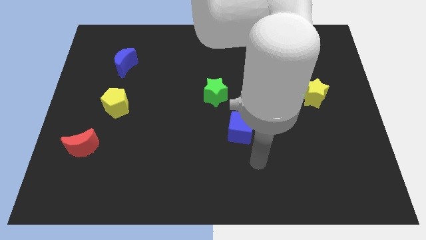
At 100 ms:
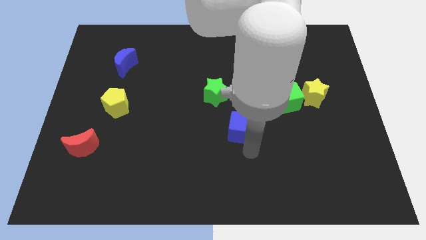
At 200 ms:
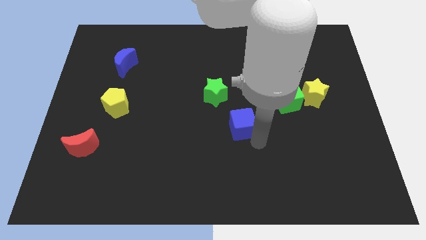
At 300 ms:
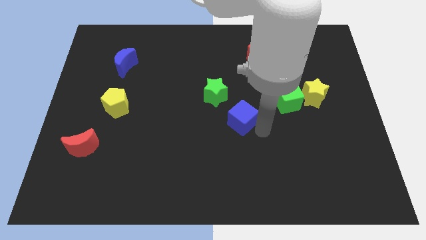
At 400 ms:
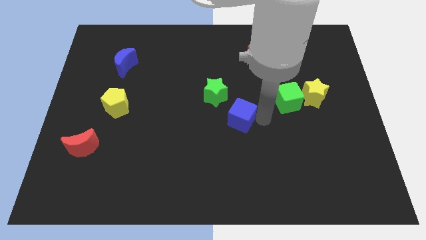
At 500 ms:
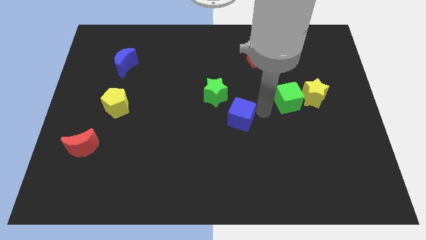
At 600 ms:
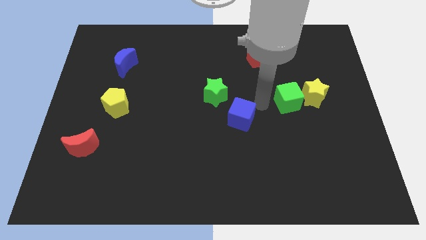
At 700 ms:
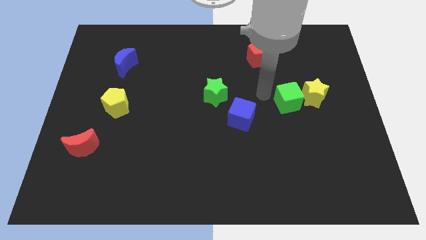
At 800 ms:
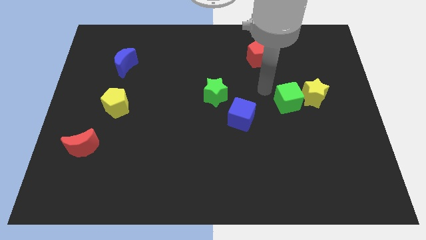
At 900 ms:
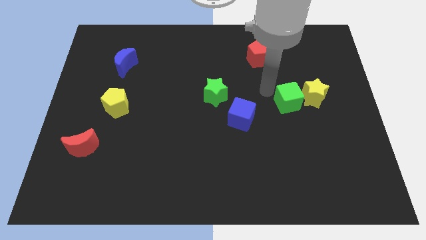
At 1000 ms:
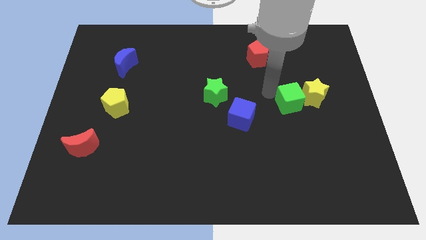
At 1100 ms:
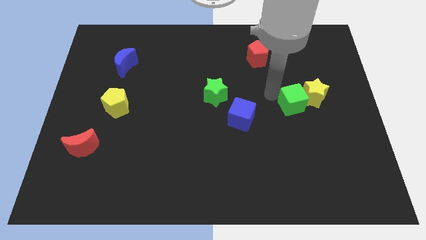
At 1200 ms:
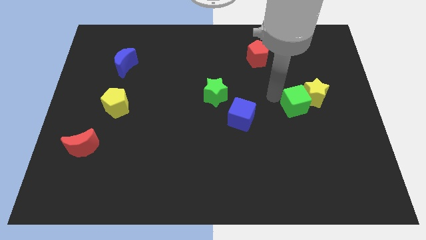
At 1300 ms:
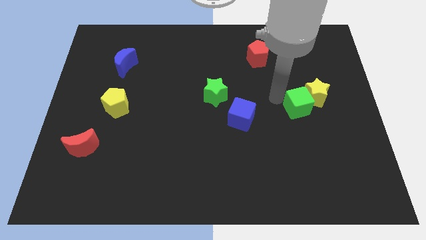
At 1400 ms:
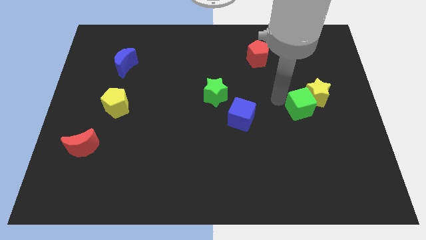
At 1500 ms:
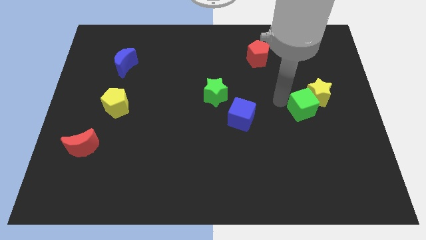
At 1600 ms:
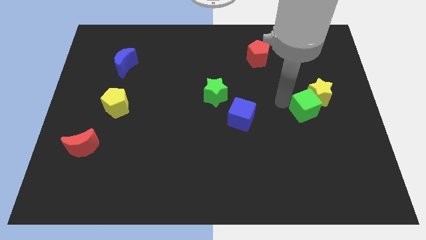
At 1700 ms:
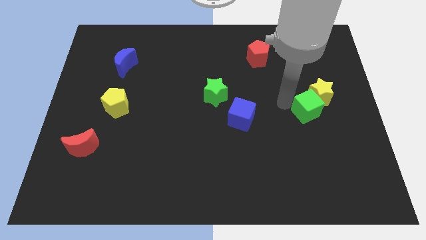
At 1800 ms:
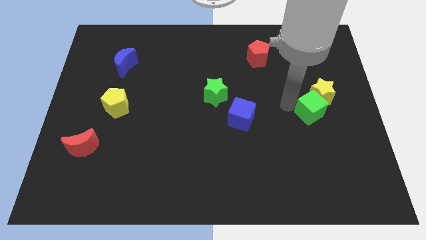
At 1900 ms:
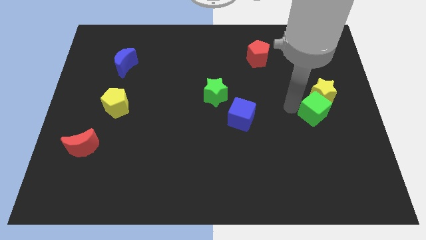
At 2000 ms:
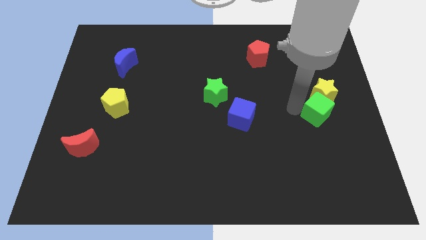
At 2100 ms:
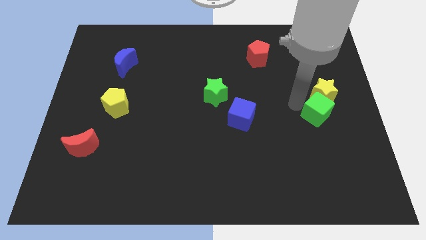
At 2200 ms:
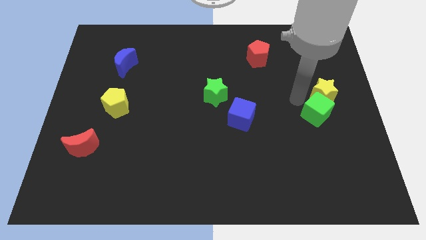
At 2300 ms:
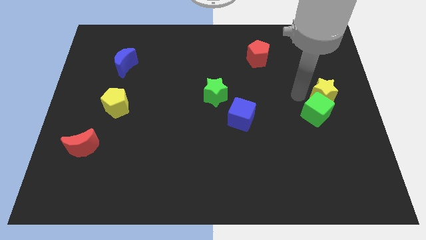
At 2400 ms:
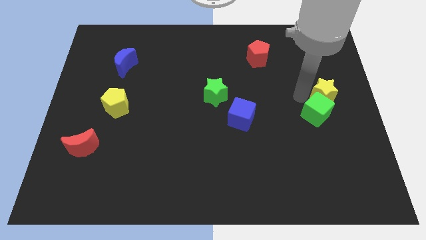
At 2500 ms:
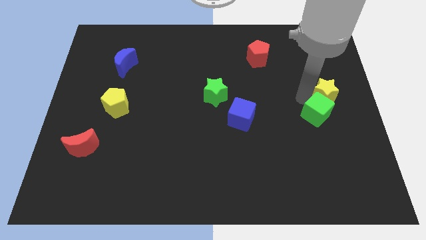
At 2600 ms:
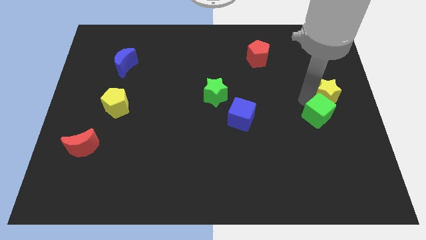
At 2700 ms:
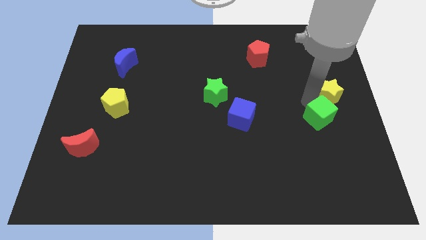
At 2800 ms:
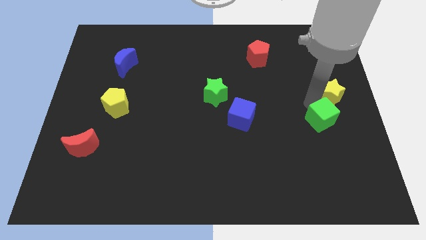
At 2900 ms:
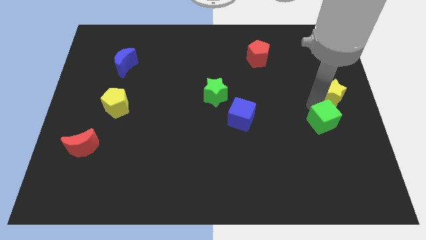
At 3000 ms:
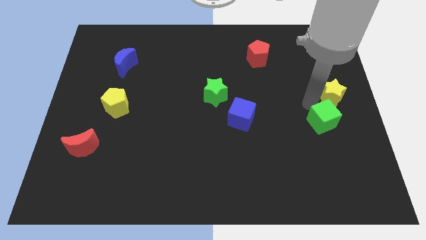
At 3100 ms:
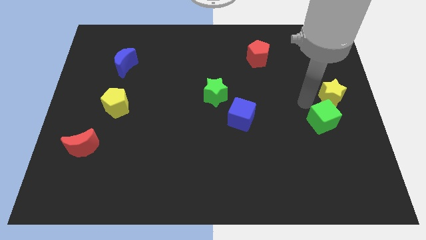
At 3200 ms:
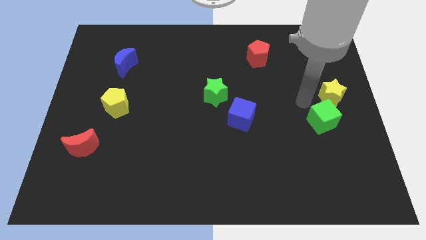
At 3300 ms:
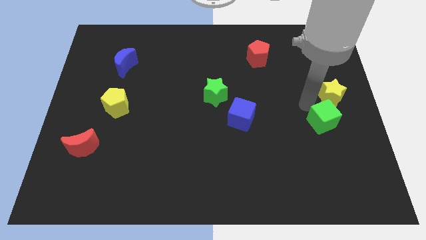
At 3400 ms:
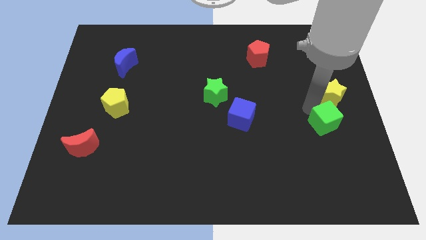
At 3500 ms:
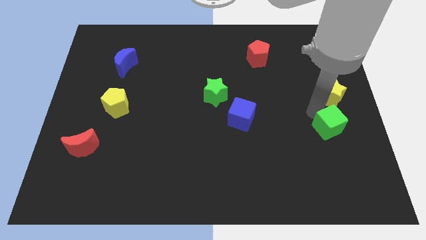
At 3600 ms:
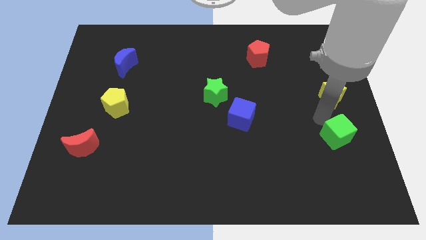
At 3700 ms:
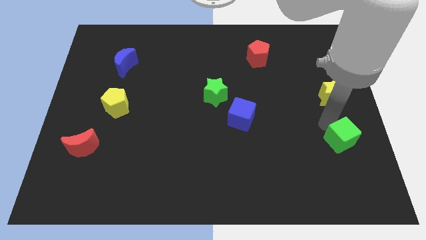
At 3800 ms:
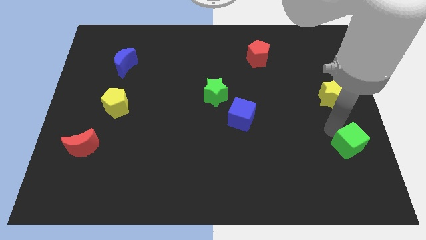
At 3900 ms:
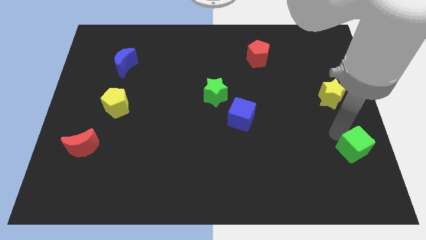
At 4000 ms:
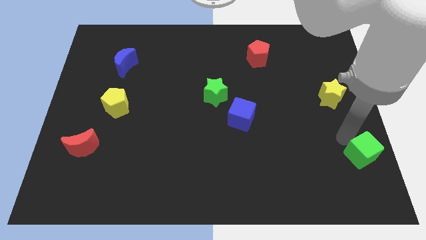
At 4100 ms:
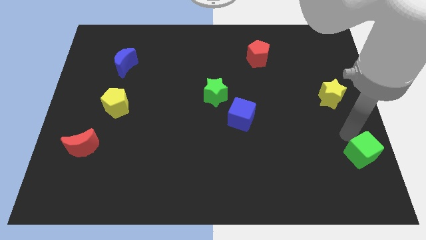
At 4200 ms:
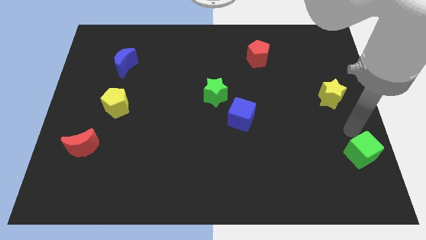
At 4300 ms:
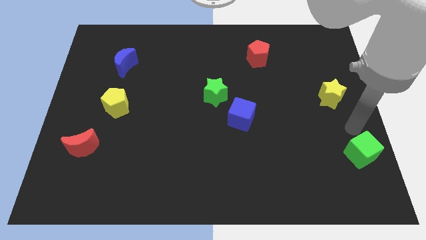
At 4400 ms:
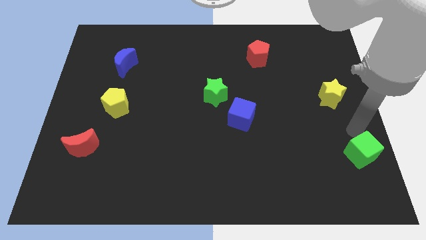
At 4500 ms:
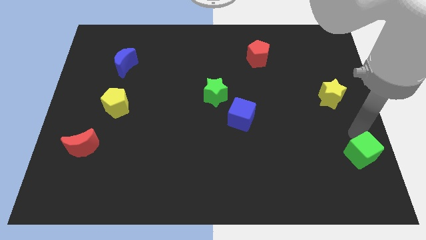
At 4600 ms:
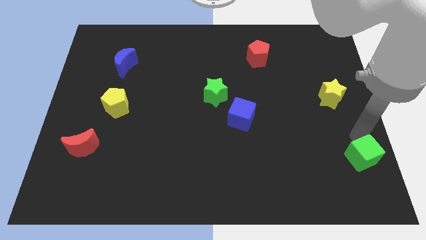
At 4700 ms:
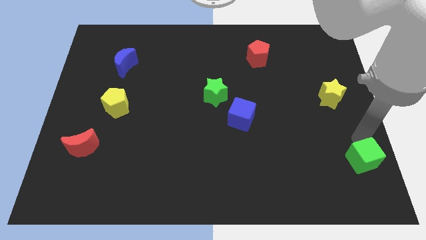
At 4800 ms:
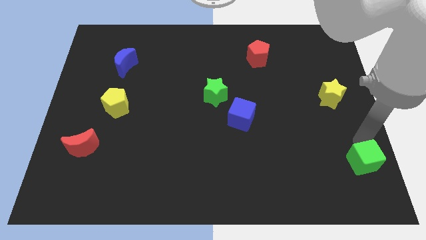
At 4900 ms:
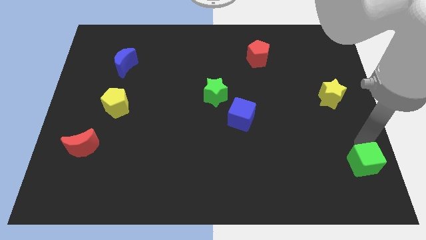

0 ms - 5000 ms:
slide the green cube to the bottom right

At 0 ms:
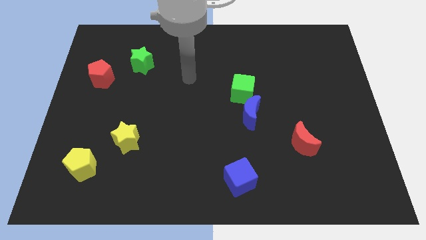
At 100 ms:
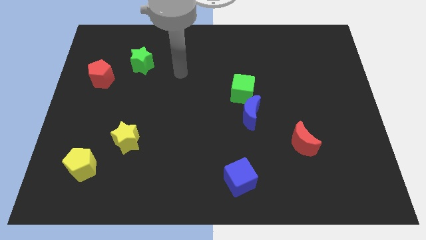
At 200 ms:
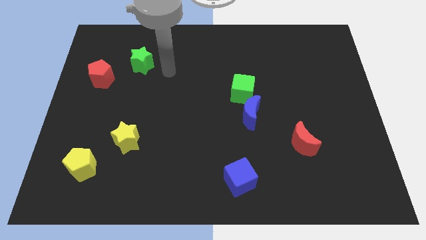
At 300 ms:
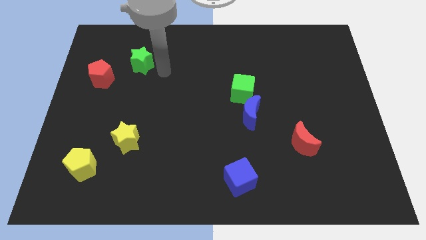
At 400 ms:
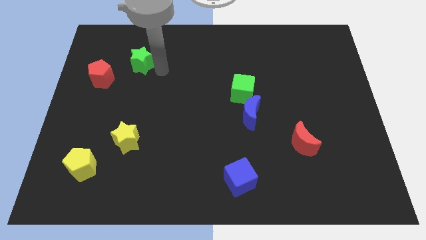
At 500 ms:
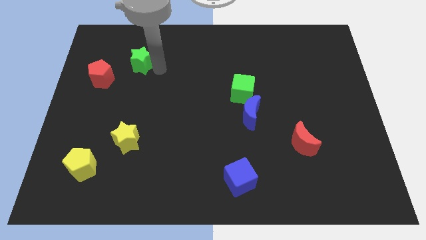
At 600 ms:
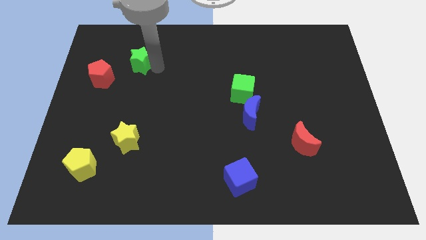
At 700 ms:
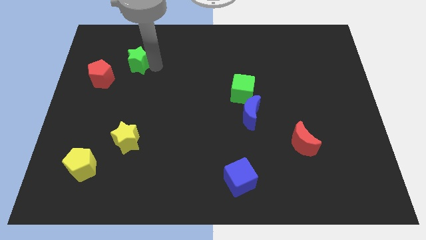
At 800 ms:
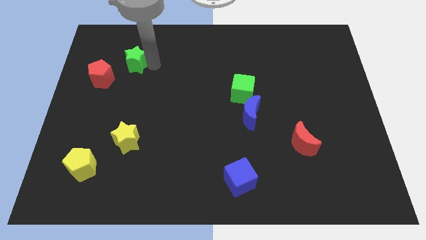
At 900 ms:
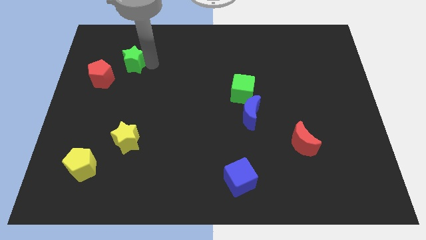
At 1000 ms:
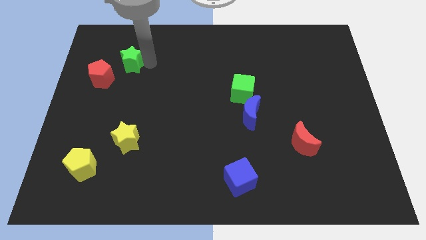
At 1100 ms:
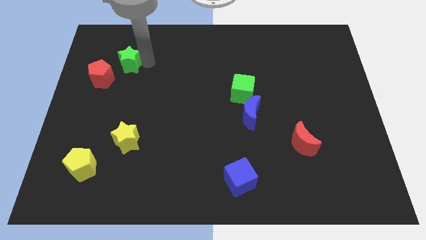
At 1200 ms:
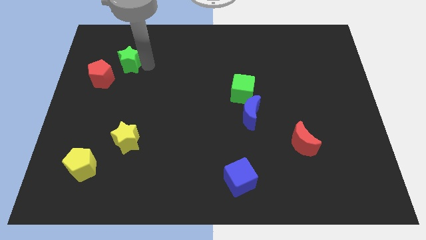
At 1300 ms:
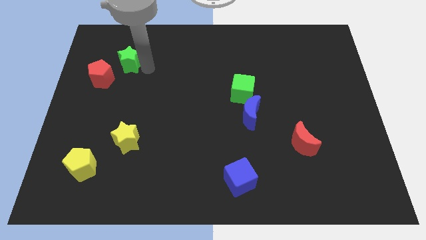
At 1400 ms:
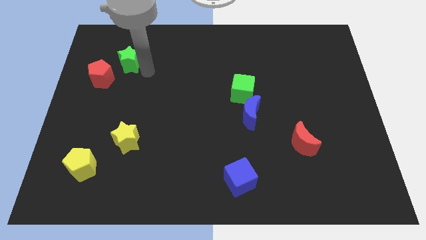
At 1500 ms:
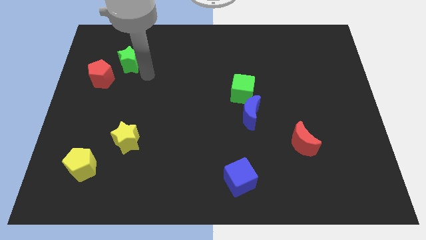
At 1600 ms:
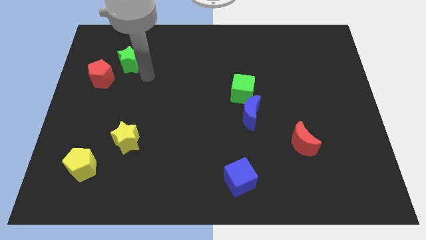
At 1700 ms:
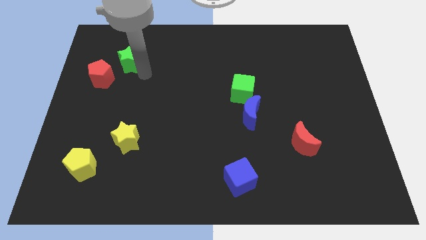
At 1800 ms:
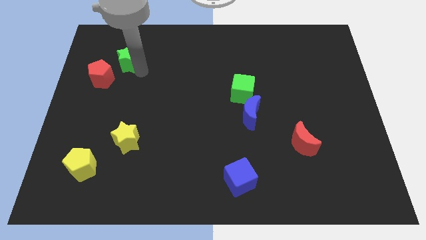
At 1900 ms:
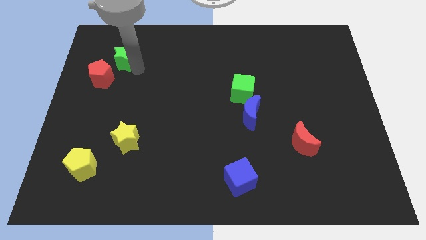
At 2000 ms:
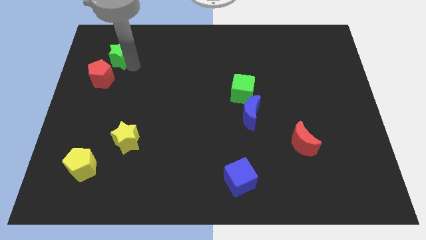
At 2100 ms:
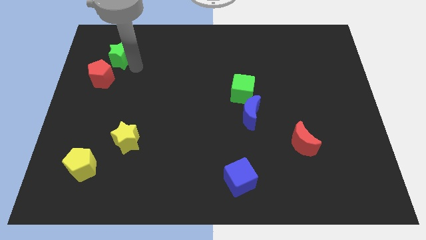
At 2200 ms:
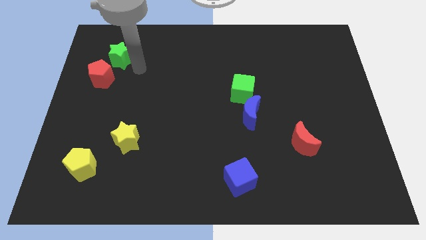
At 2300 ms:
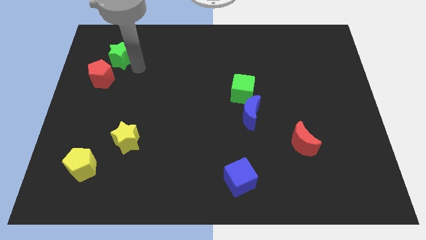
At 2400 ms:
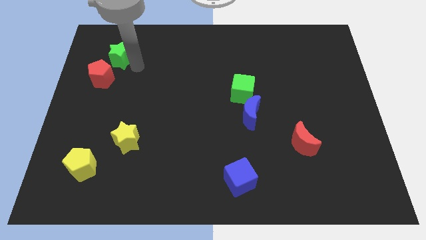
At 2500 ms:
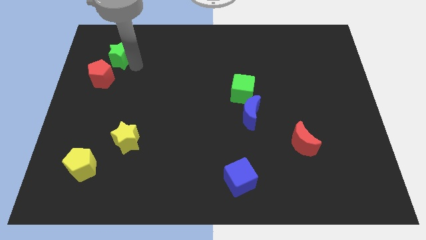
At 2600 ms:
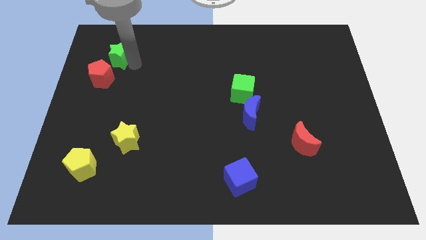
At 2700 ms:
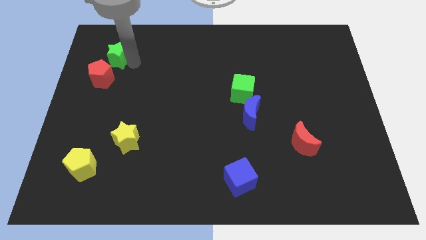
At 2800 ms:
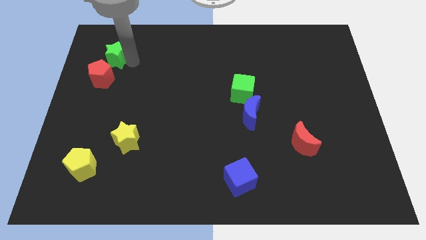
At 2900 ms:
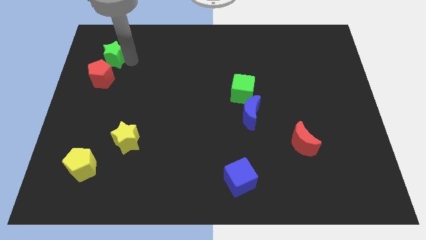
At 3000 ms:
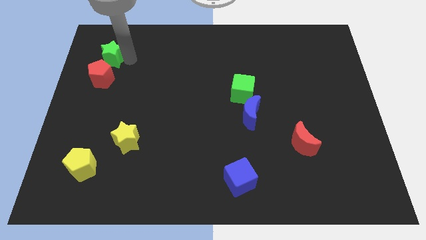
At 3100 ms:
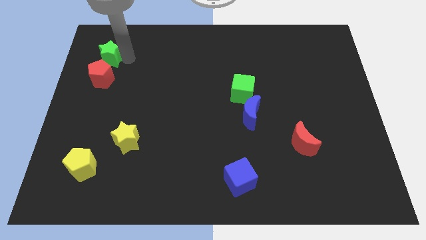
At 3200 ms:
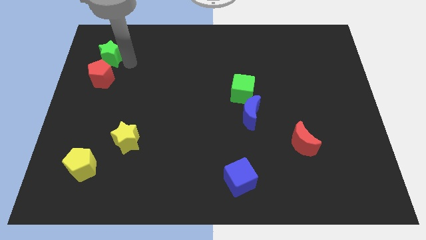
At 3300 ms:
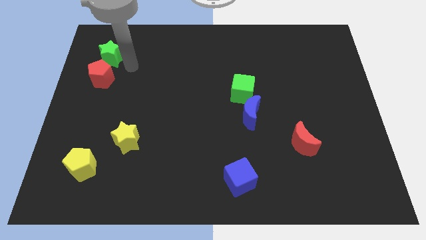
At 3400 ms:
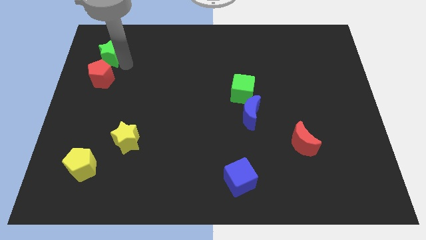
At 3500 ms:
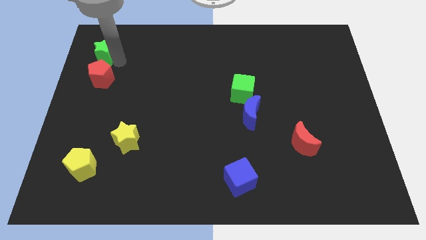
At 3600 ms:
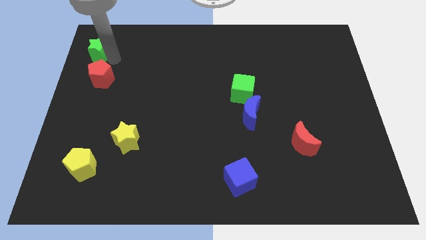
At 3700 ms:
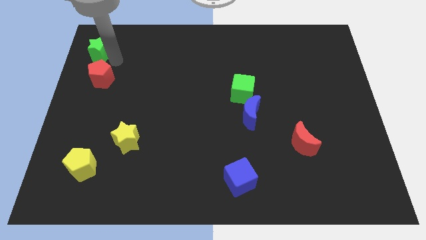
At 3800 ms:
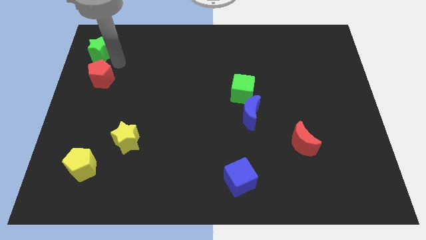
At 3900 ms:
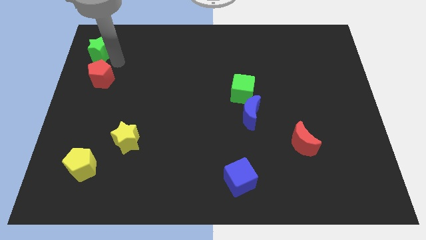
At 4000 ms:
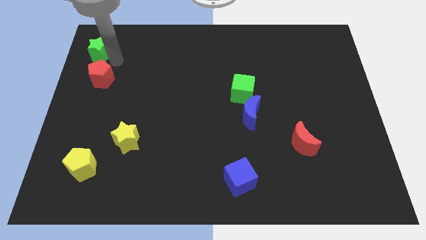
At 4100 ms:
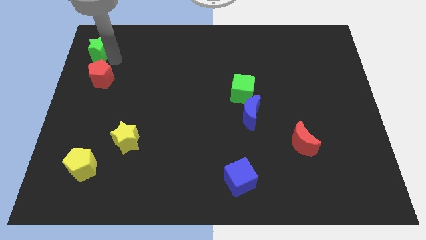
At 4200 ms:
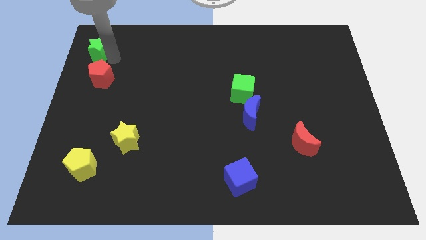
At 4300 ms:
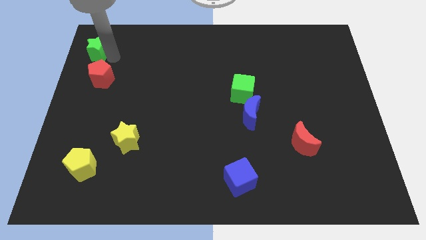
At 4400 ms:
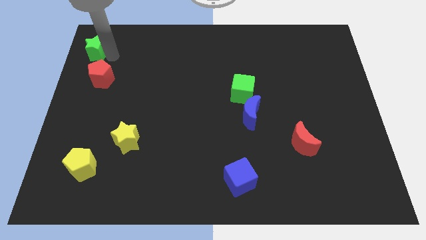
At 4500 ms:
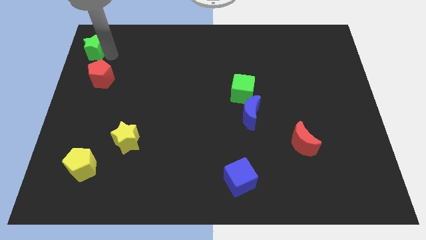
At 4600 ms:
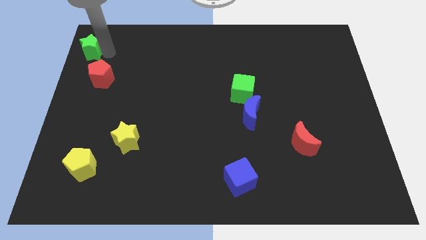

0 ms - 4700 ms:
push the green star to the upper left corner
